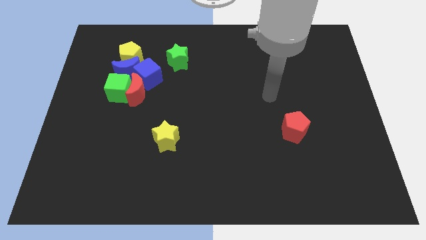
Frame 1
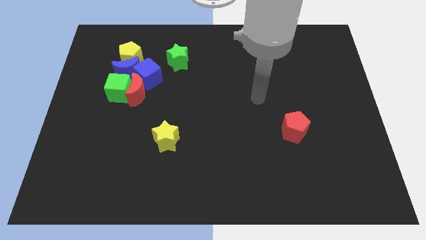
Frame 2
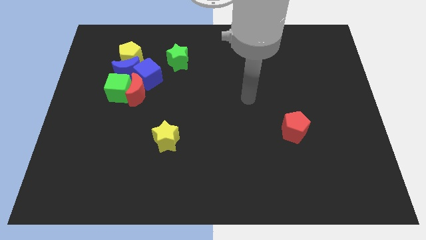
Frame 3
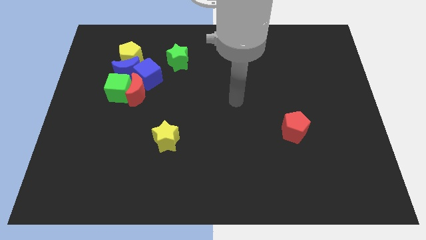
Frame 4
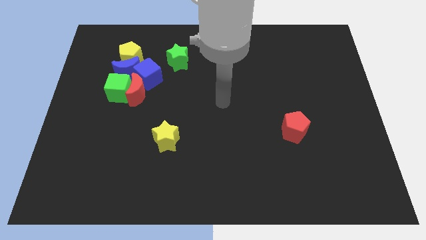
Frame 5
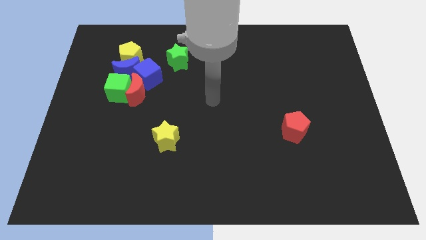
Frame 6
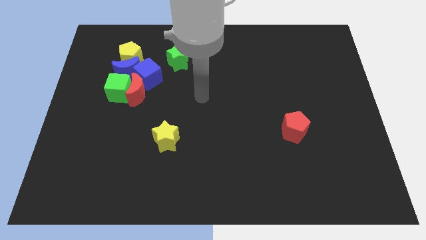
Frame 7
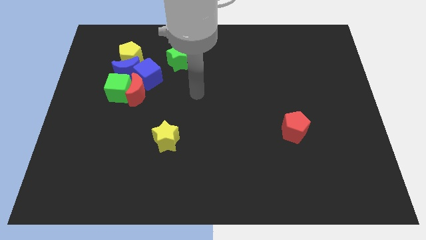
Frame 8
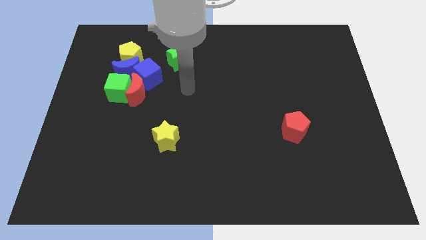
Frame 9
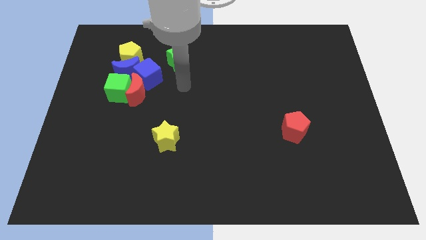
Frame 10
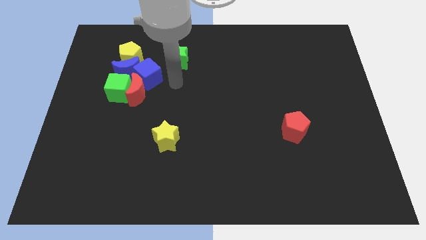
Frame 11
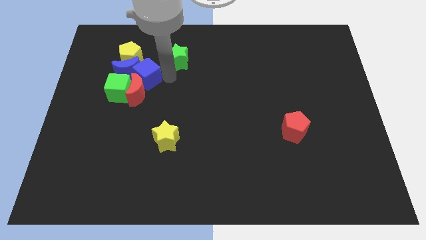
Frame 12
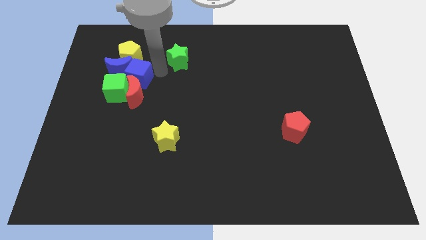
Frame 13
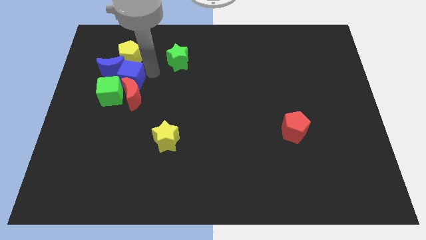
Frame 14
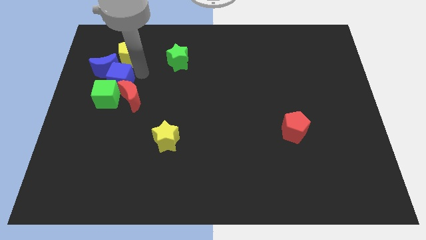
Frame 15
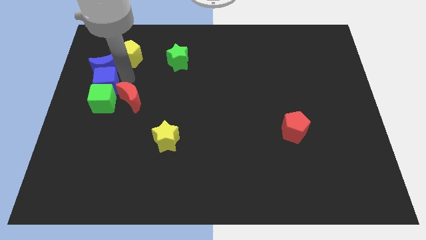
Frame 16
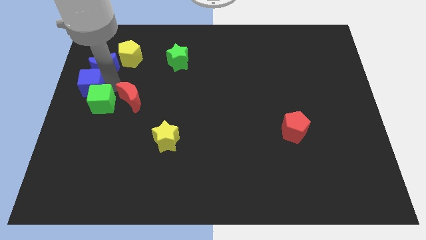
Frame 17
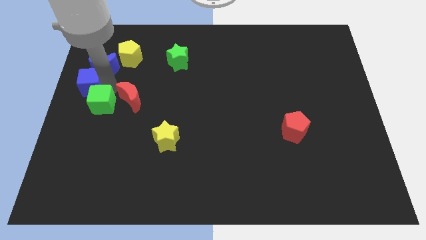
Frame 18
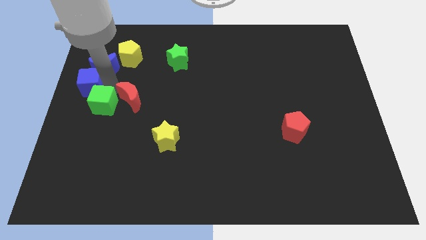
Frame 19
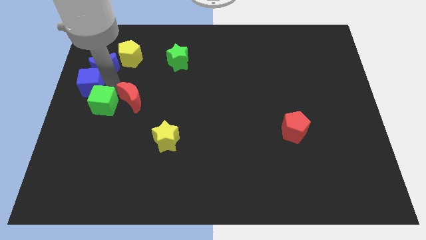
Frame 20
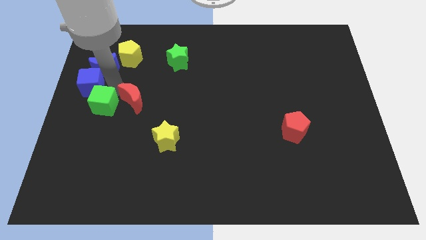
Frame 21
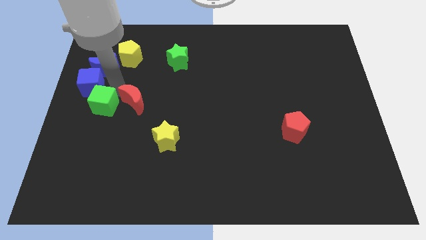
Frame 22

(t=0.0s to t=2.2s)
pull the red moon apart from the green cube, blue cube, and blue moon

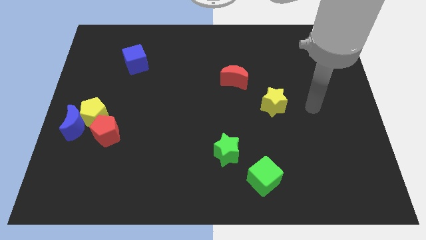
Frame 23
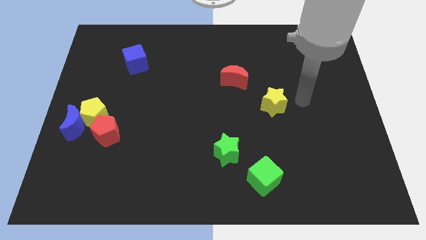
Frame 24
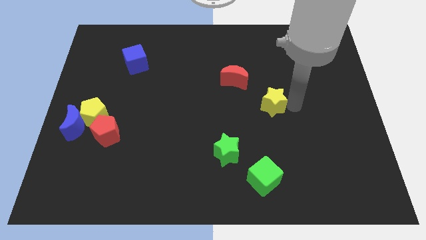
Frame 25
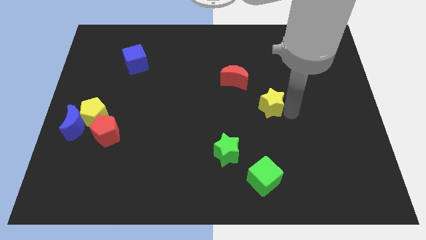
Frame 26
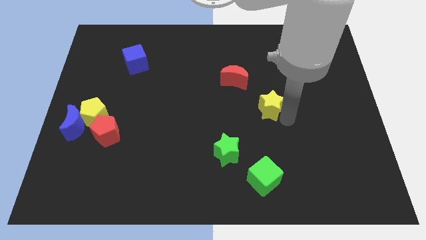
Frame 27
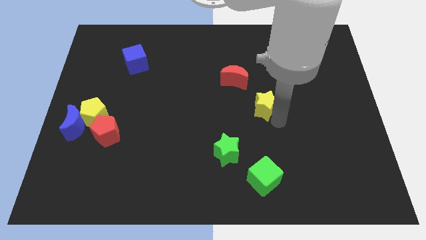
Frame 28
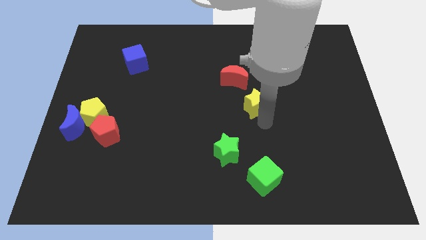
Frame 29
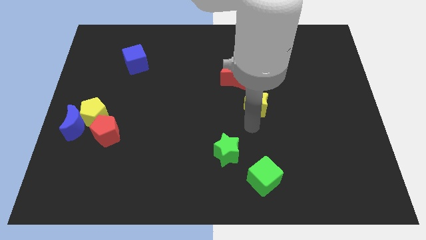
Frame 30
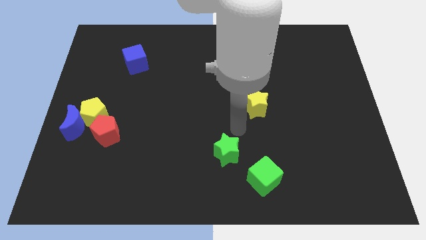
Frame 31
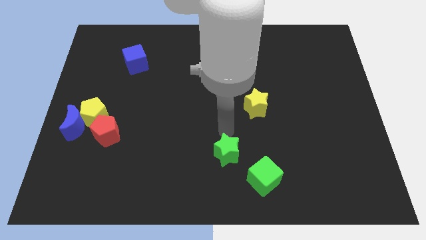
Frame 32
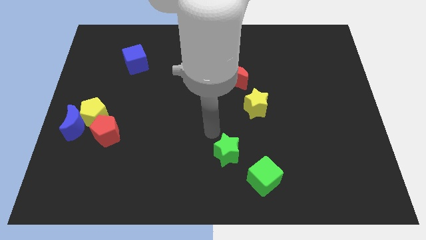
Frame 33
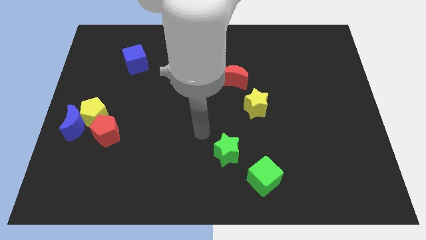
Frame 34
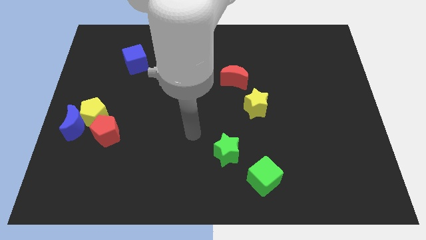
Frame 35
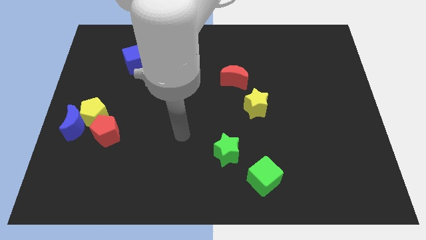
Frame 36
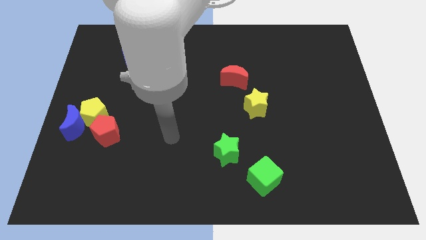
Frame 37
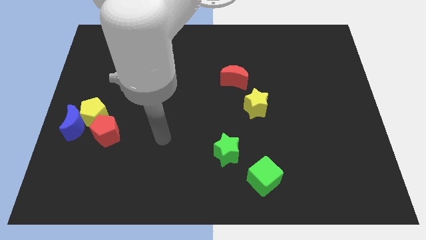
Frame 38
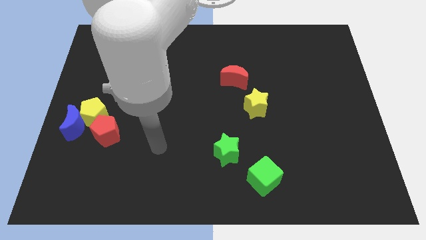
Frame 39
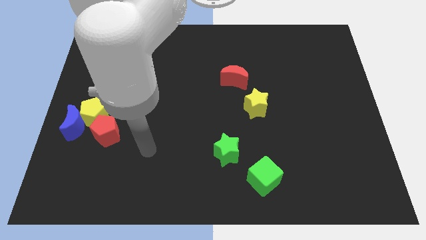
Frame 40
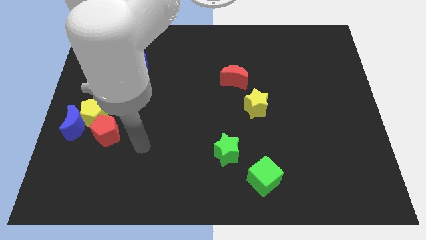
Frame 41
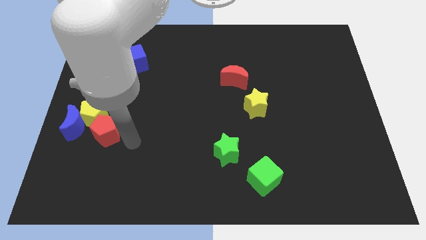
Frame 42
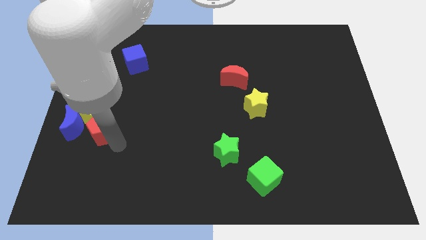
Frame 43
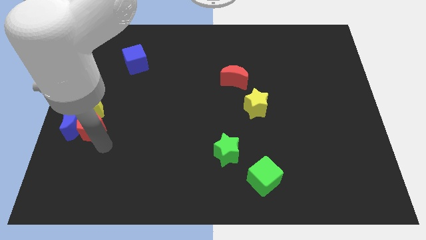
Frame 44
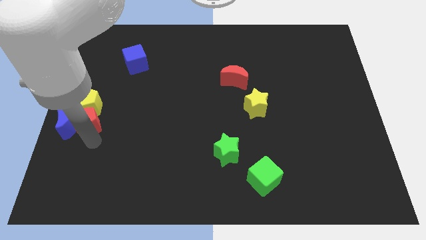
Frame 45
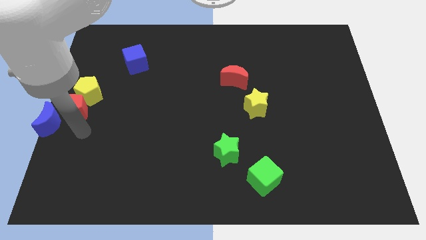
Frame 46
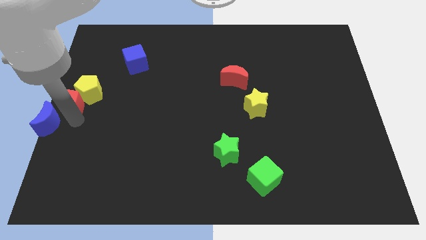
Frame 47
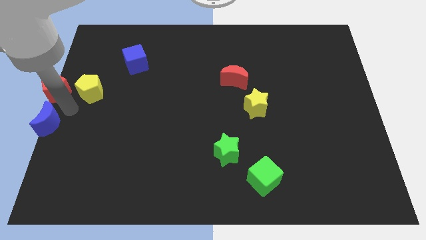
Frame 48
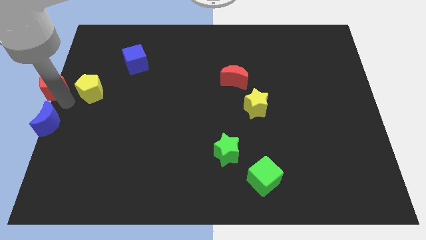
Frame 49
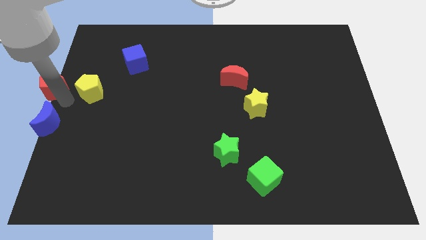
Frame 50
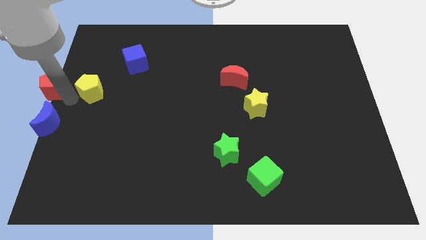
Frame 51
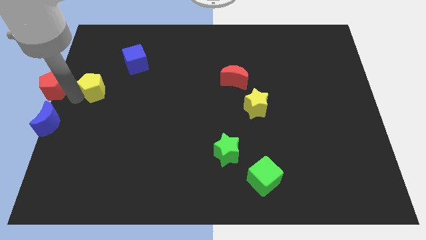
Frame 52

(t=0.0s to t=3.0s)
separate the yellow pentagon from the blue moon and red pentagon

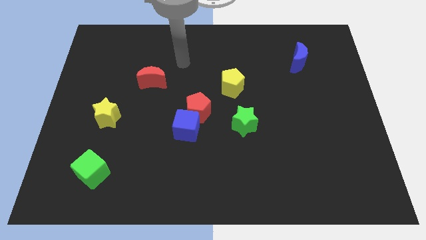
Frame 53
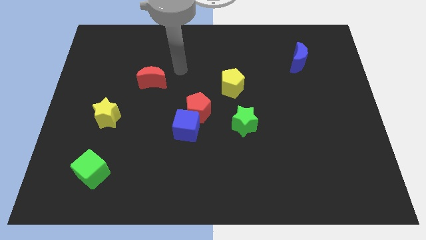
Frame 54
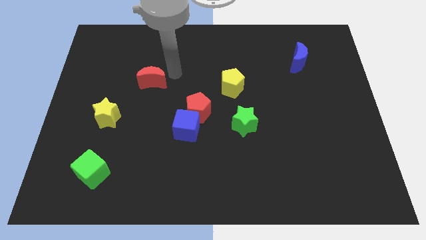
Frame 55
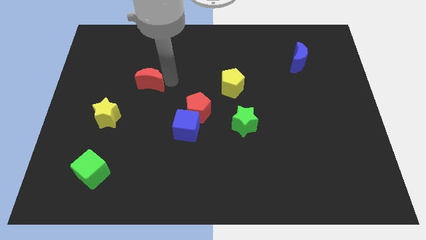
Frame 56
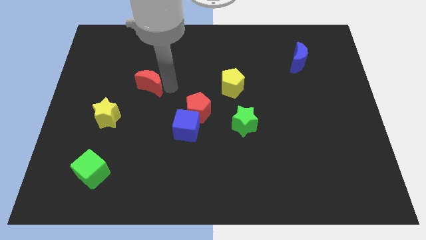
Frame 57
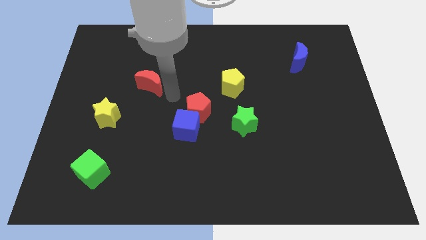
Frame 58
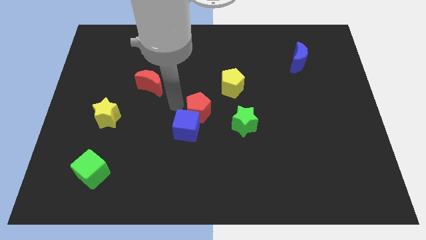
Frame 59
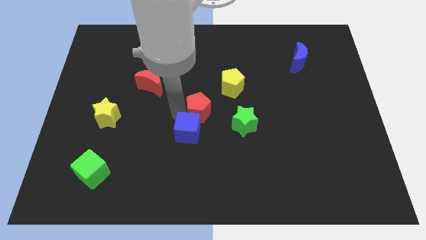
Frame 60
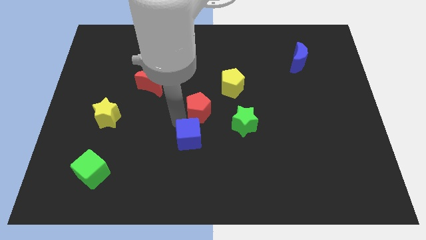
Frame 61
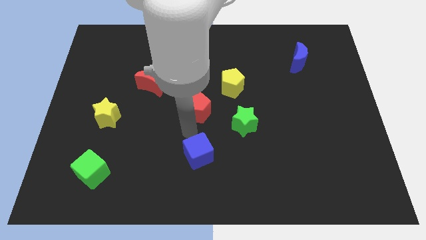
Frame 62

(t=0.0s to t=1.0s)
pull the red pentagon apart from the blue cube

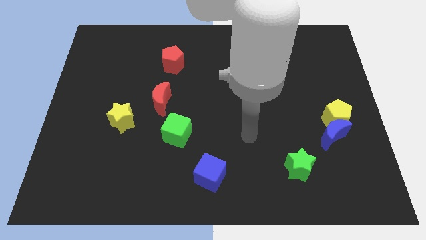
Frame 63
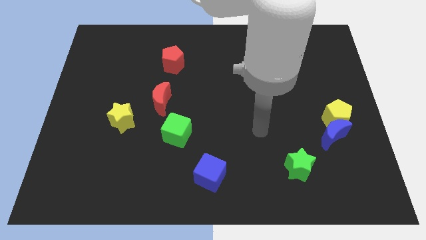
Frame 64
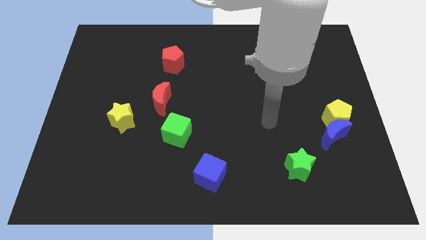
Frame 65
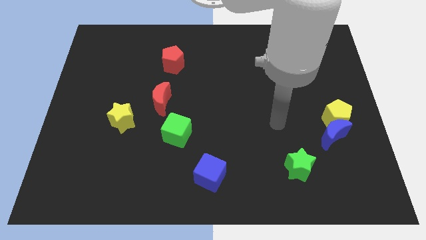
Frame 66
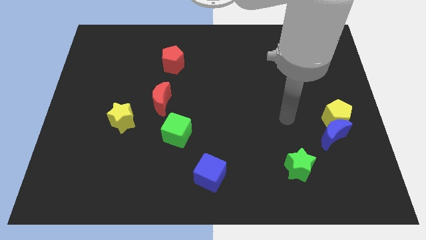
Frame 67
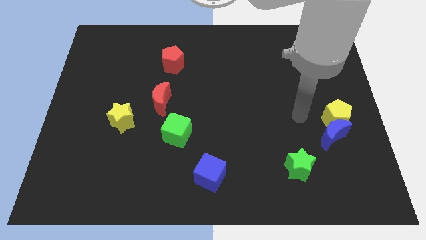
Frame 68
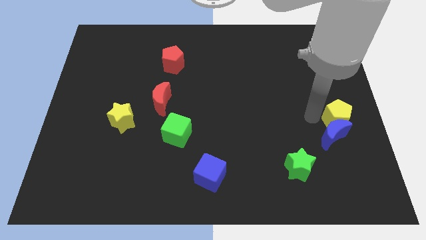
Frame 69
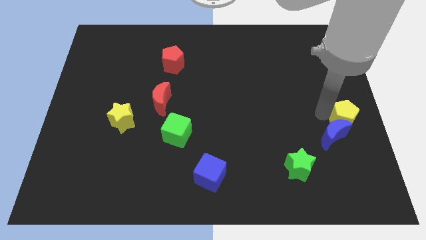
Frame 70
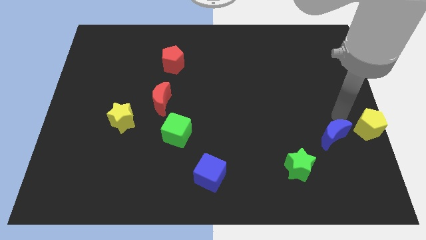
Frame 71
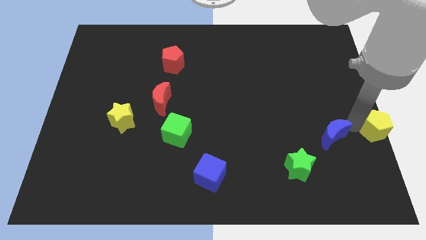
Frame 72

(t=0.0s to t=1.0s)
move the blue moon away from the yellow pentagon

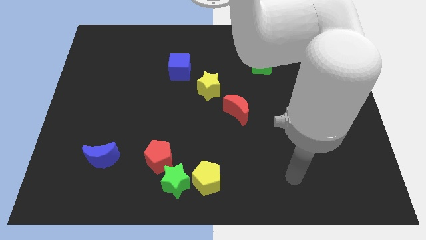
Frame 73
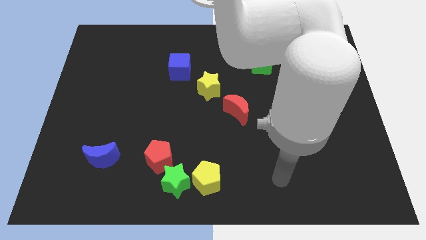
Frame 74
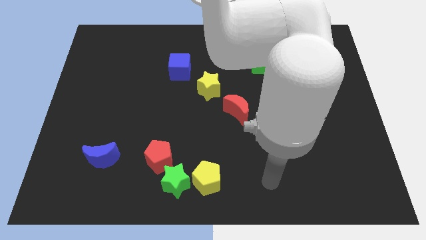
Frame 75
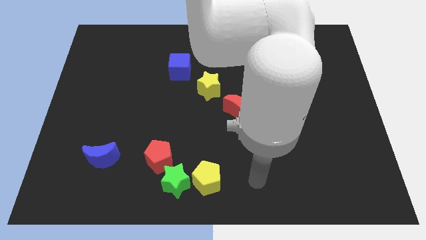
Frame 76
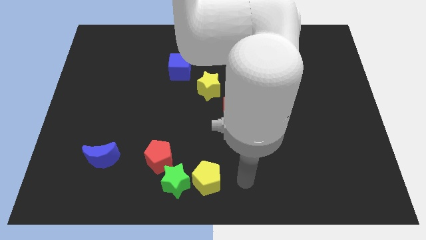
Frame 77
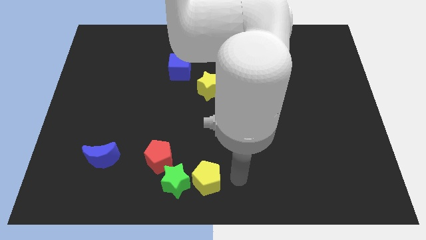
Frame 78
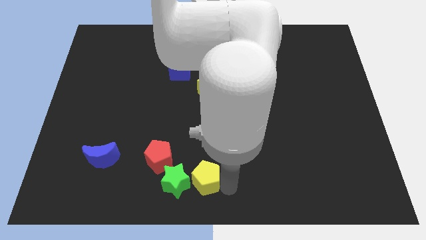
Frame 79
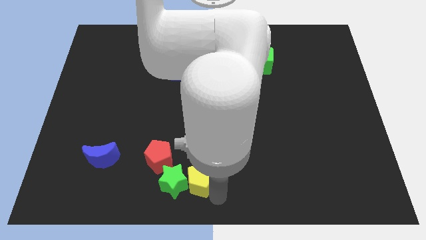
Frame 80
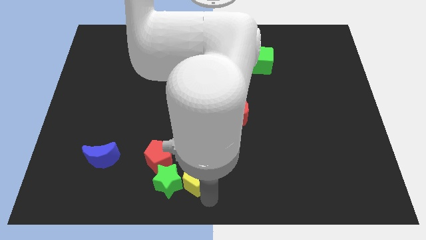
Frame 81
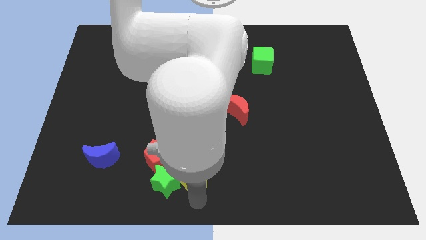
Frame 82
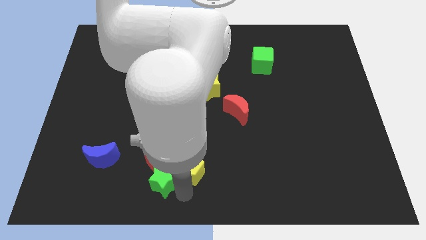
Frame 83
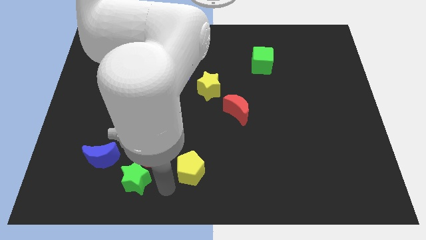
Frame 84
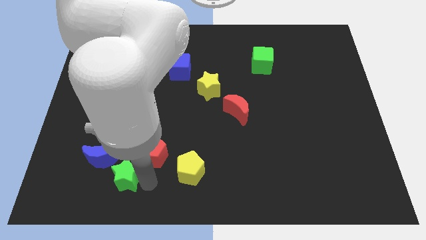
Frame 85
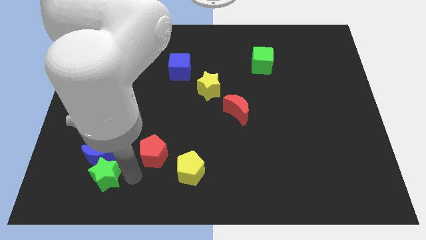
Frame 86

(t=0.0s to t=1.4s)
separate the red pentagon from the green star

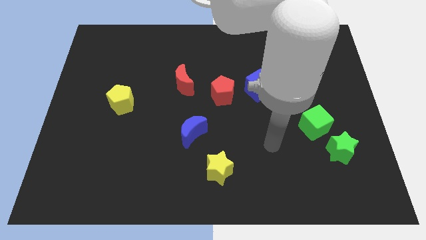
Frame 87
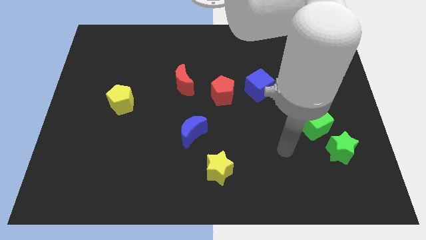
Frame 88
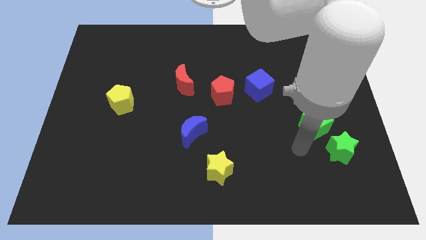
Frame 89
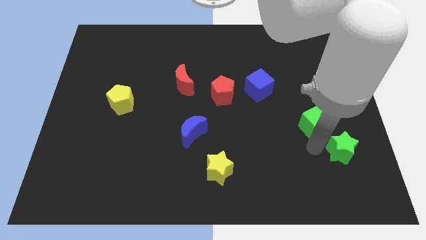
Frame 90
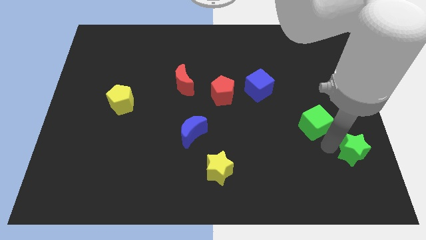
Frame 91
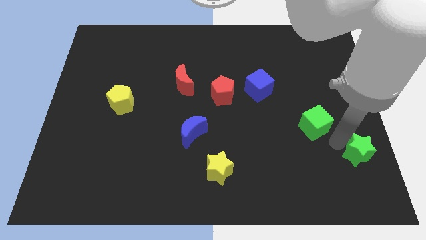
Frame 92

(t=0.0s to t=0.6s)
move the green cube away from the green star
